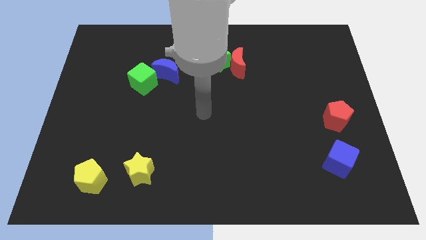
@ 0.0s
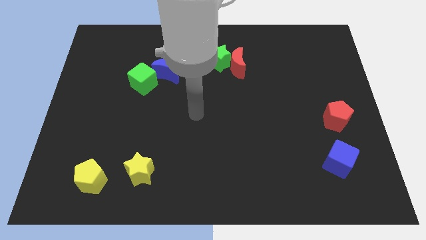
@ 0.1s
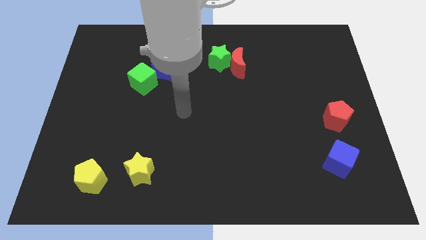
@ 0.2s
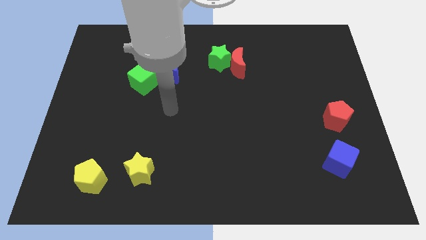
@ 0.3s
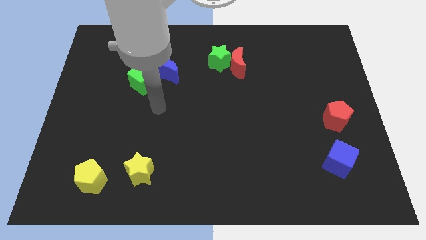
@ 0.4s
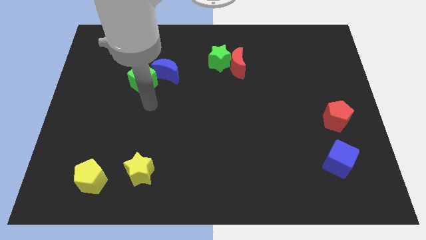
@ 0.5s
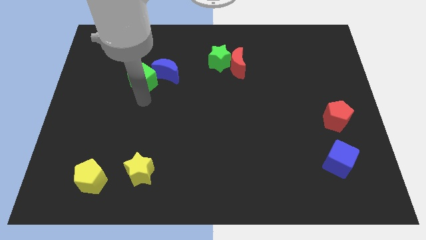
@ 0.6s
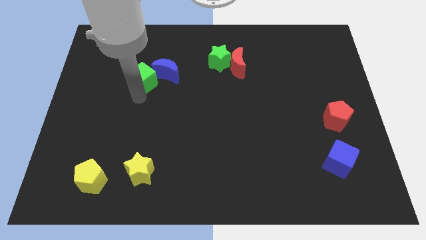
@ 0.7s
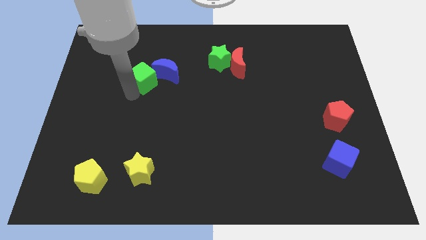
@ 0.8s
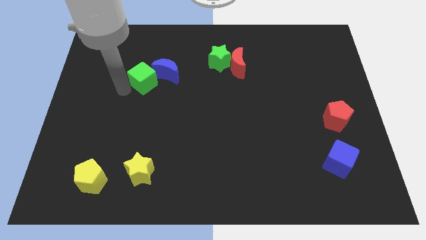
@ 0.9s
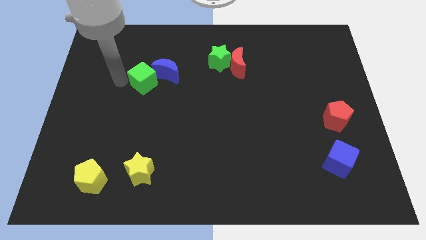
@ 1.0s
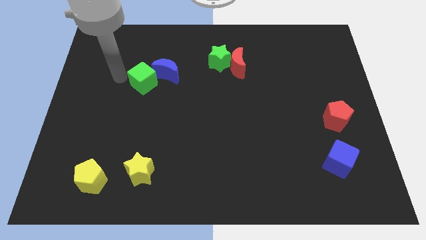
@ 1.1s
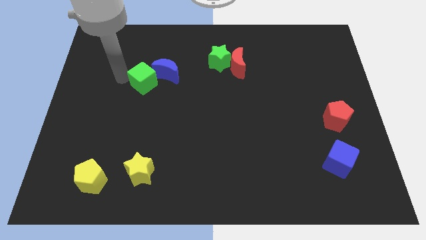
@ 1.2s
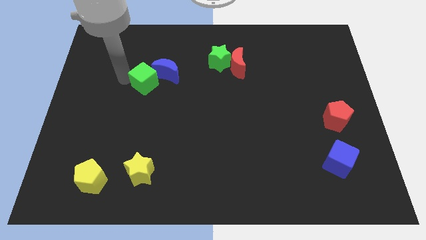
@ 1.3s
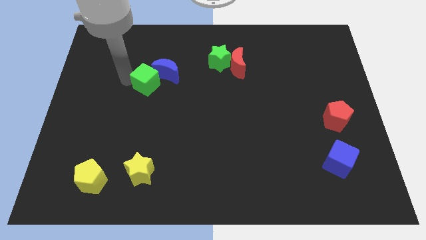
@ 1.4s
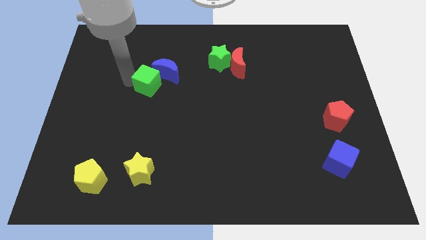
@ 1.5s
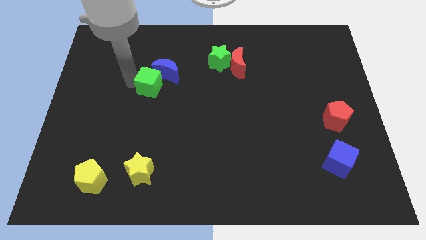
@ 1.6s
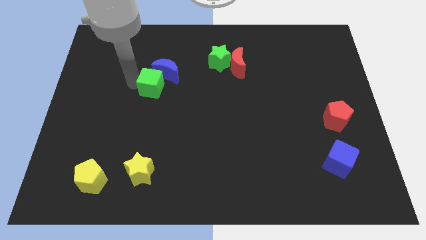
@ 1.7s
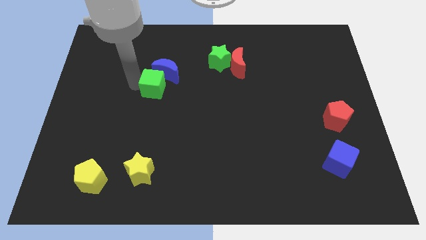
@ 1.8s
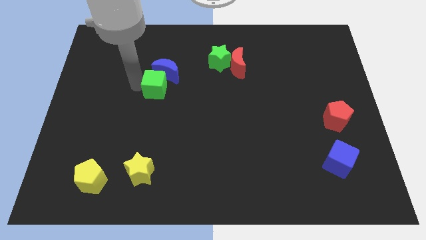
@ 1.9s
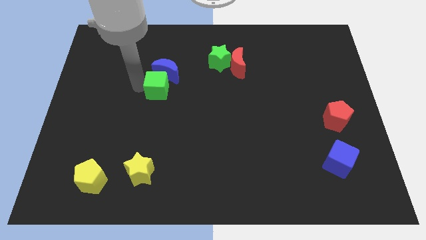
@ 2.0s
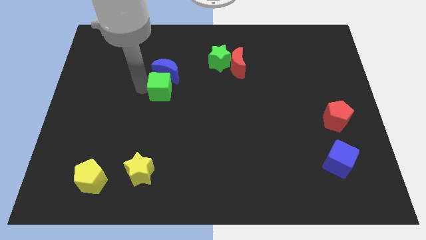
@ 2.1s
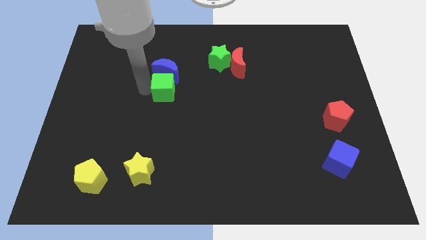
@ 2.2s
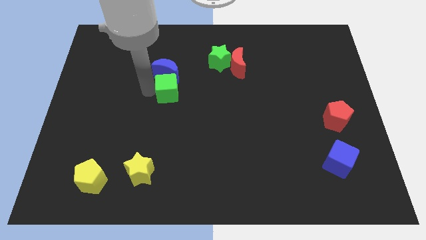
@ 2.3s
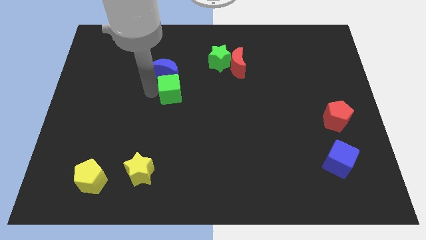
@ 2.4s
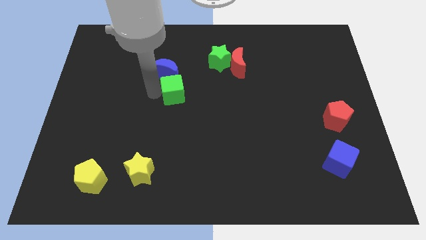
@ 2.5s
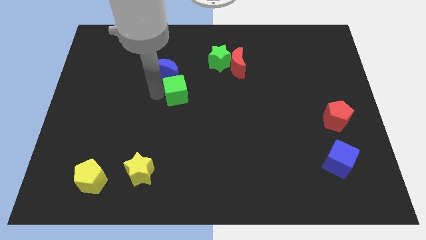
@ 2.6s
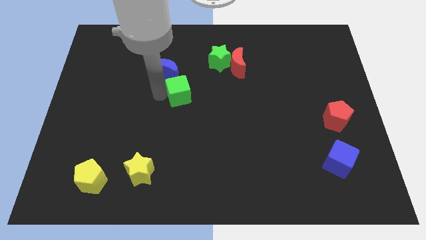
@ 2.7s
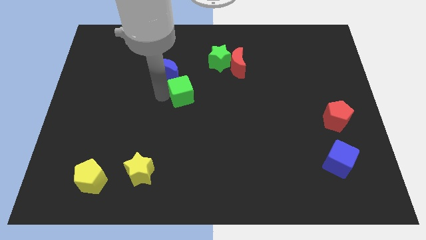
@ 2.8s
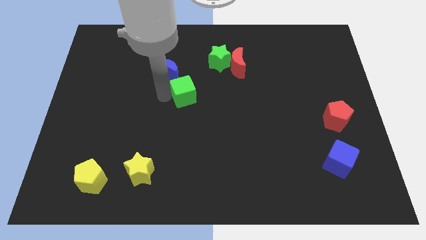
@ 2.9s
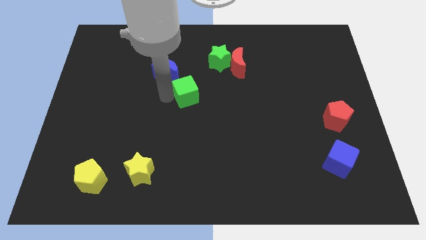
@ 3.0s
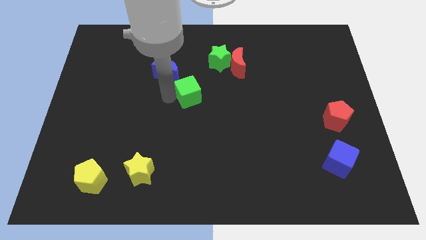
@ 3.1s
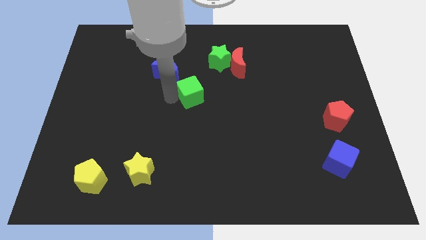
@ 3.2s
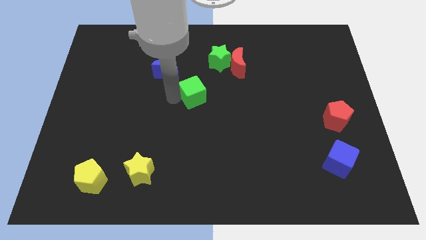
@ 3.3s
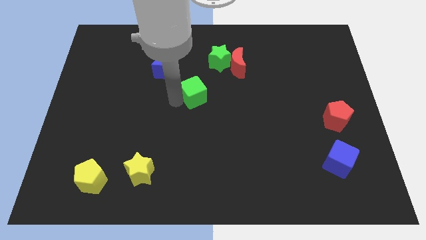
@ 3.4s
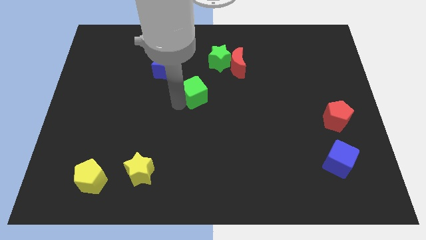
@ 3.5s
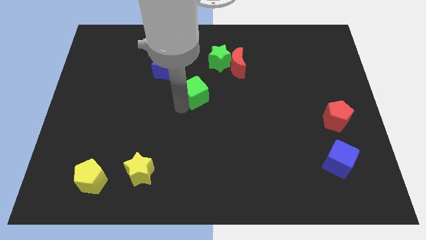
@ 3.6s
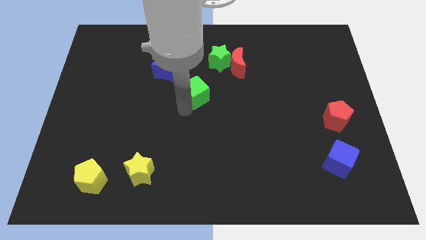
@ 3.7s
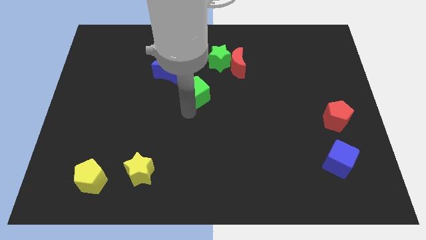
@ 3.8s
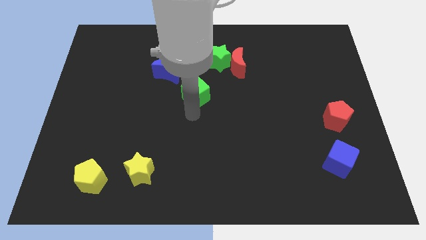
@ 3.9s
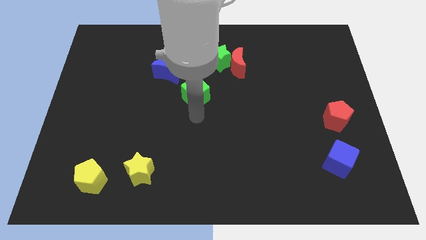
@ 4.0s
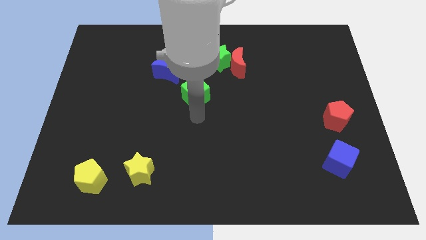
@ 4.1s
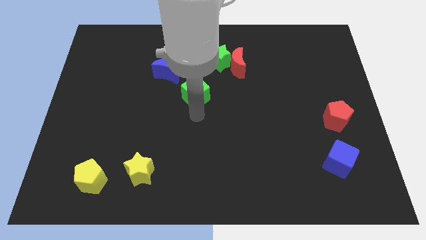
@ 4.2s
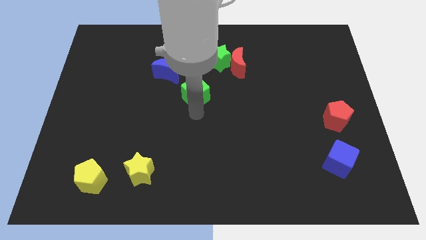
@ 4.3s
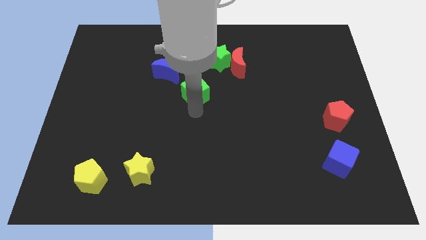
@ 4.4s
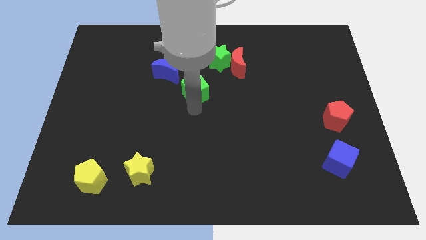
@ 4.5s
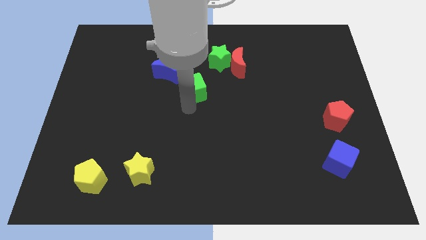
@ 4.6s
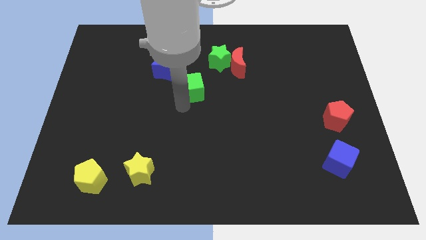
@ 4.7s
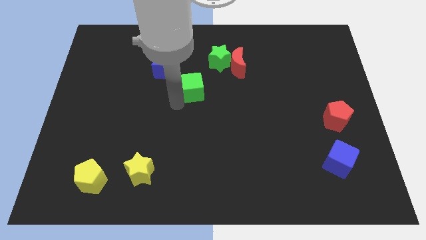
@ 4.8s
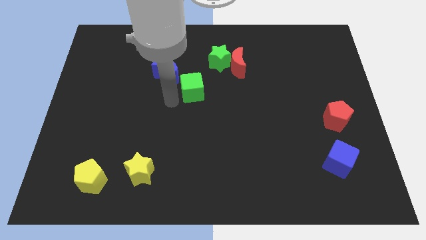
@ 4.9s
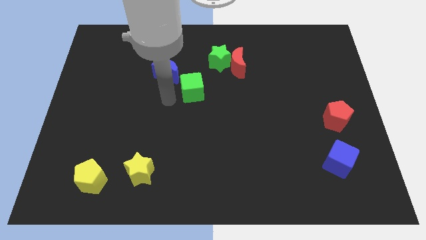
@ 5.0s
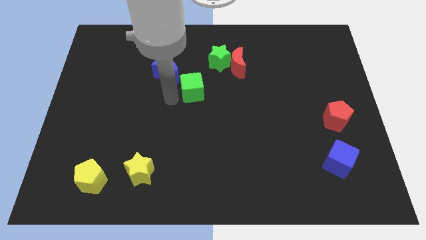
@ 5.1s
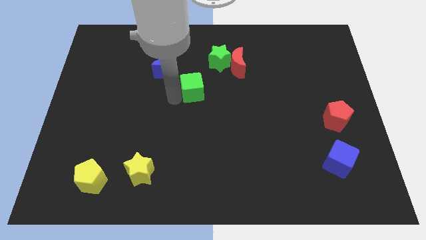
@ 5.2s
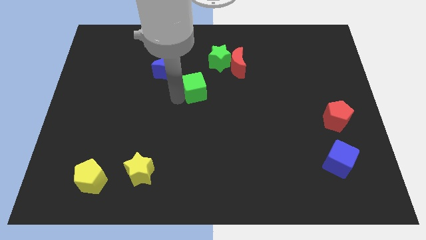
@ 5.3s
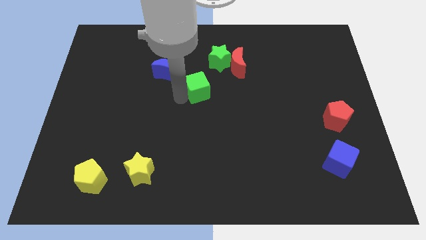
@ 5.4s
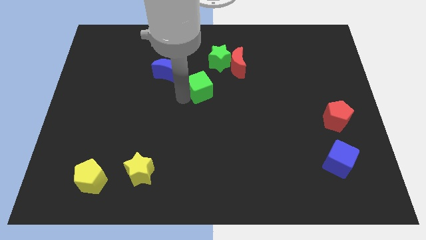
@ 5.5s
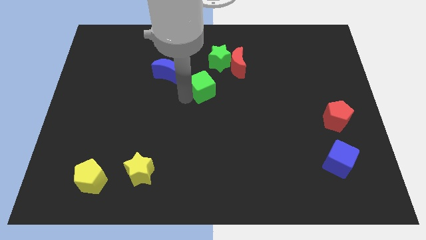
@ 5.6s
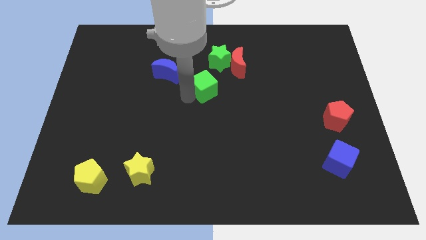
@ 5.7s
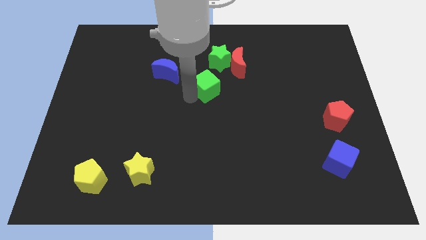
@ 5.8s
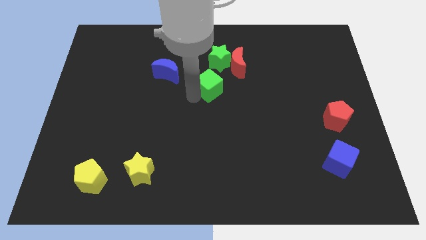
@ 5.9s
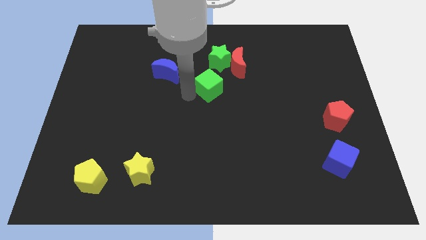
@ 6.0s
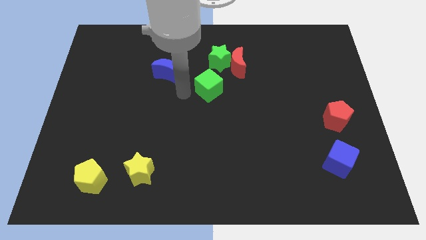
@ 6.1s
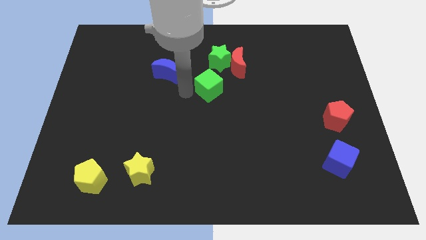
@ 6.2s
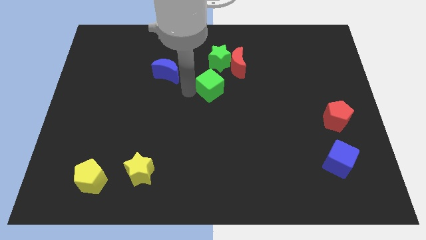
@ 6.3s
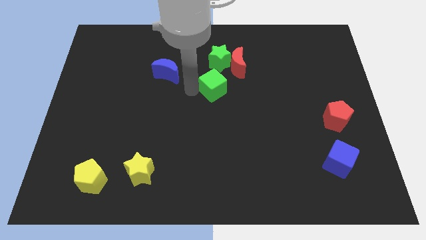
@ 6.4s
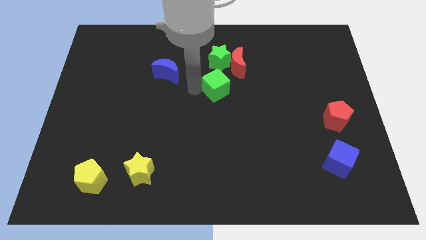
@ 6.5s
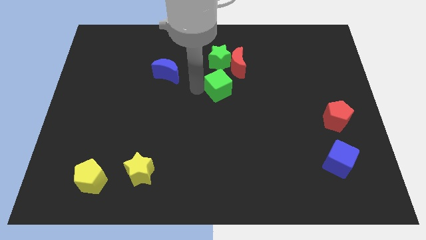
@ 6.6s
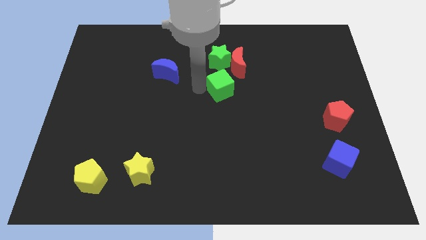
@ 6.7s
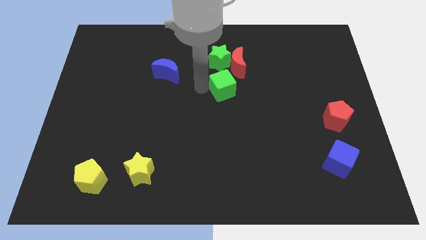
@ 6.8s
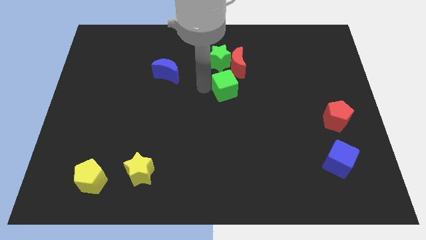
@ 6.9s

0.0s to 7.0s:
push the green cube right

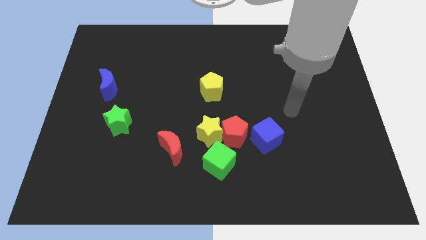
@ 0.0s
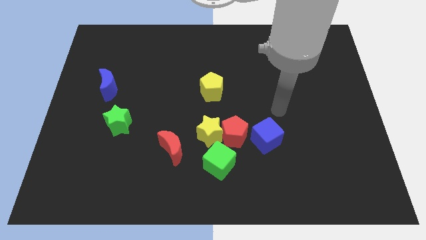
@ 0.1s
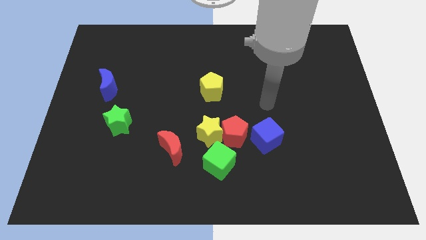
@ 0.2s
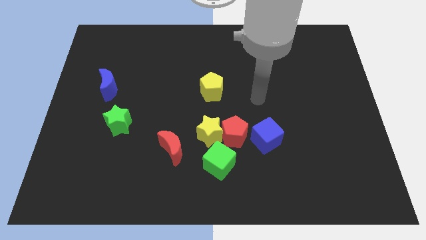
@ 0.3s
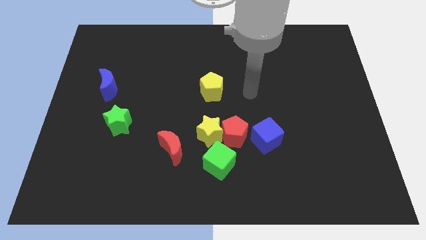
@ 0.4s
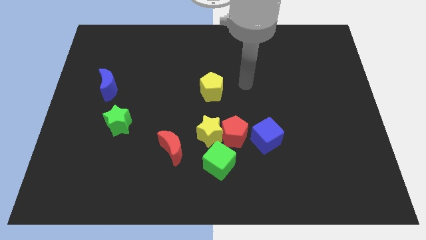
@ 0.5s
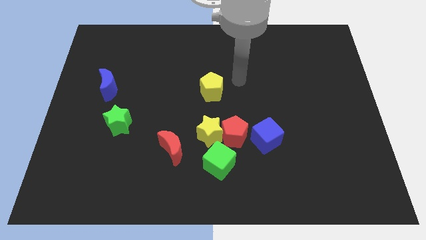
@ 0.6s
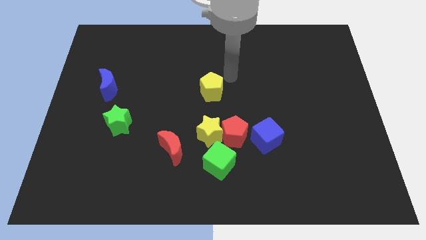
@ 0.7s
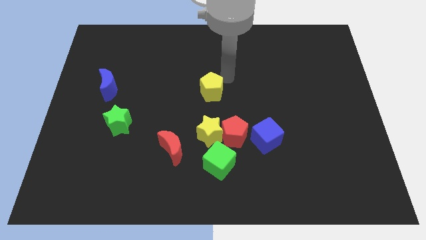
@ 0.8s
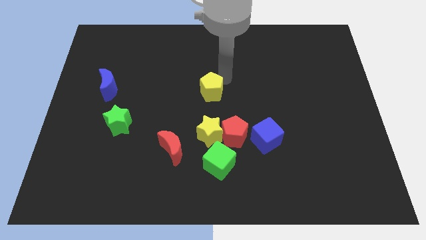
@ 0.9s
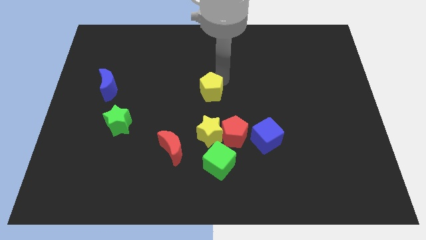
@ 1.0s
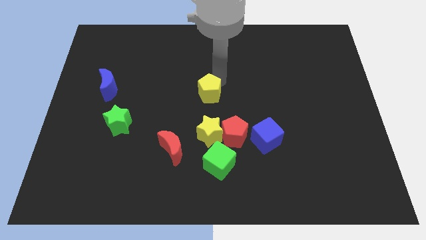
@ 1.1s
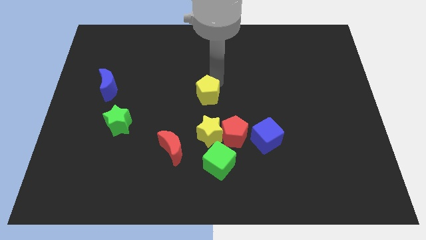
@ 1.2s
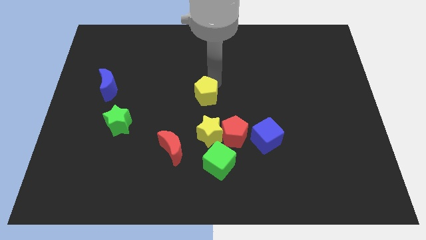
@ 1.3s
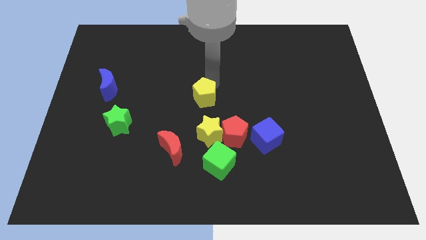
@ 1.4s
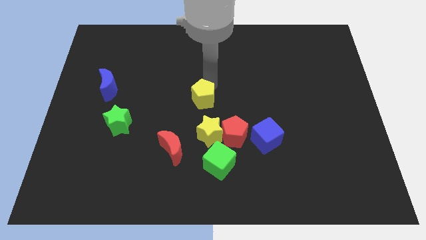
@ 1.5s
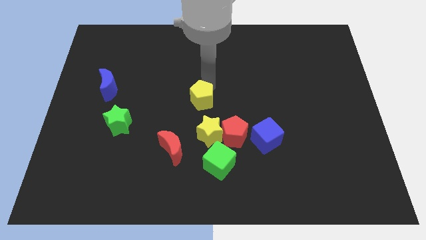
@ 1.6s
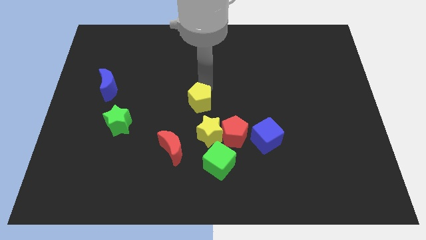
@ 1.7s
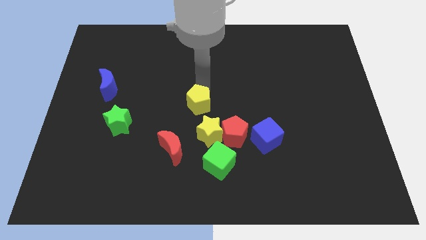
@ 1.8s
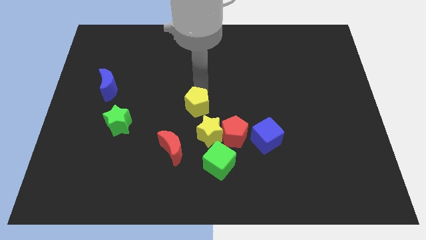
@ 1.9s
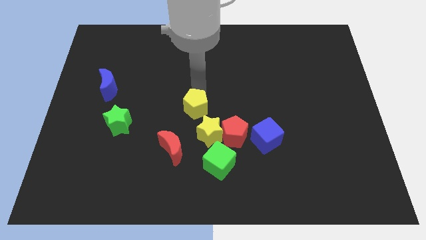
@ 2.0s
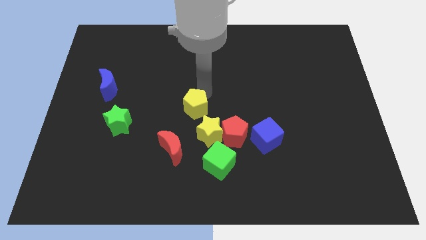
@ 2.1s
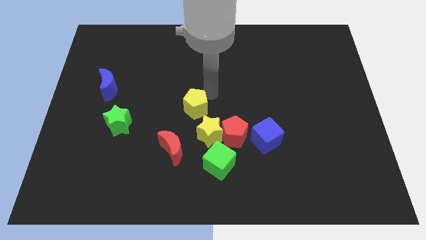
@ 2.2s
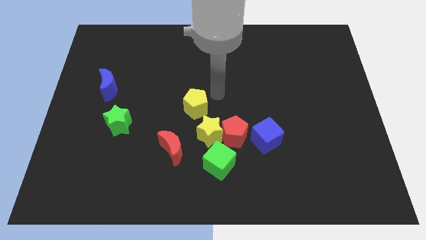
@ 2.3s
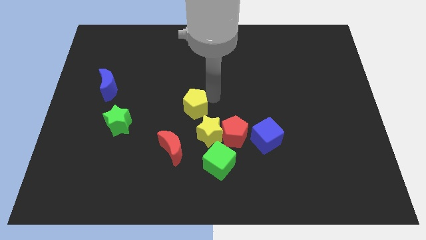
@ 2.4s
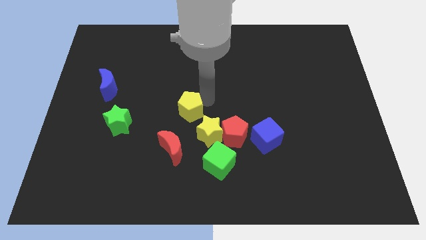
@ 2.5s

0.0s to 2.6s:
slide the yellow pentagon down and left a little bit
